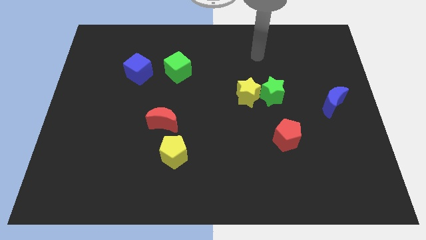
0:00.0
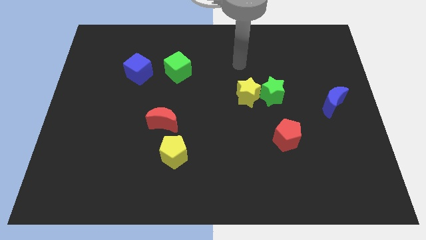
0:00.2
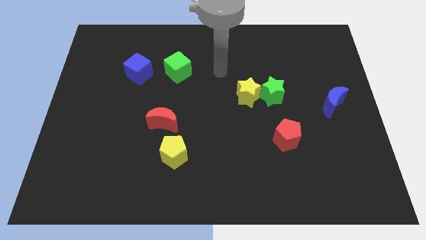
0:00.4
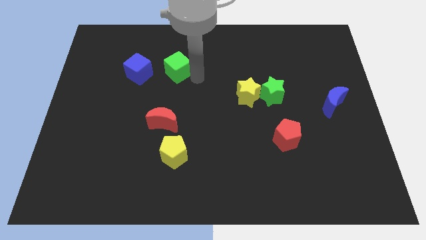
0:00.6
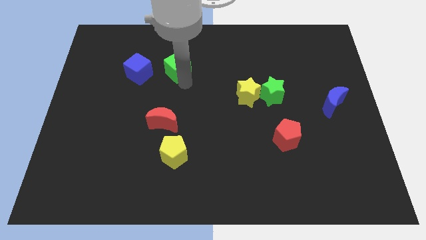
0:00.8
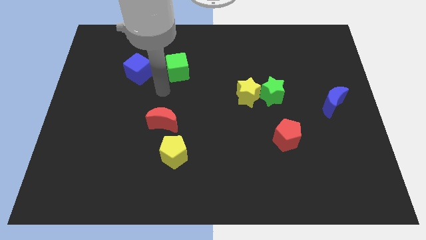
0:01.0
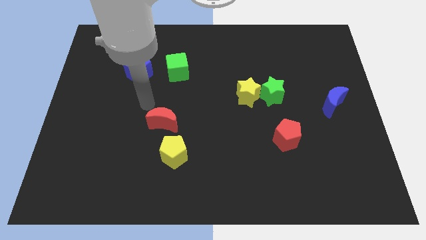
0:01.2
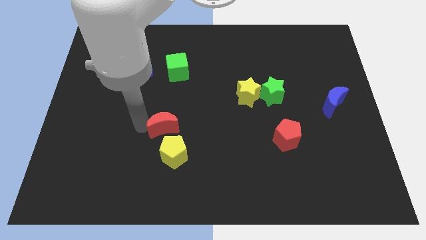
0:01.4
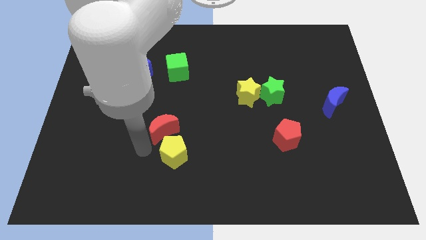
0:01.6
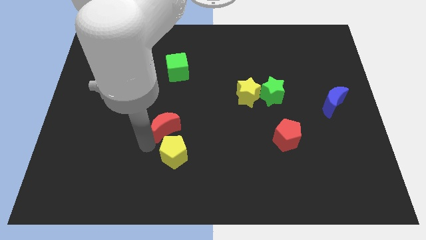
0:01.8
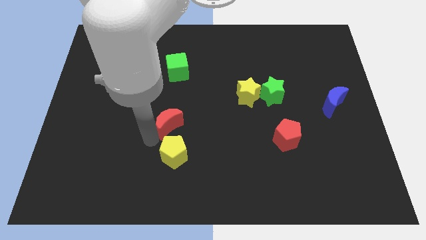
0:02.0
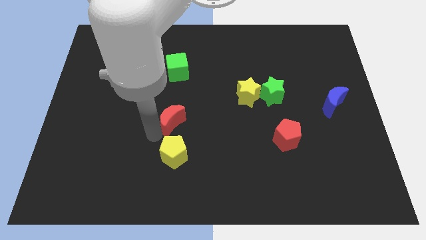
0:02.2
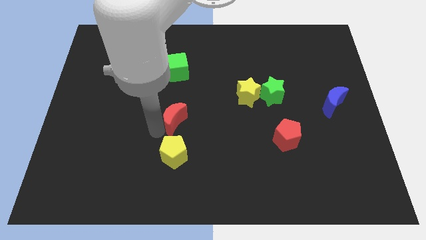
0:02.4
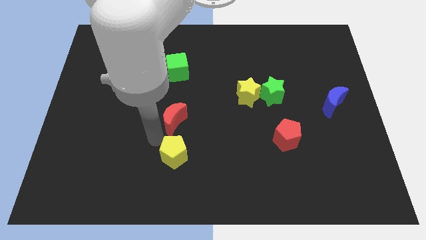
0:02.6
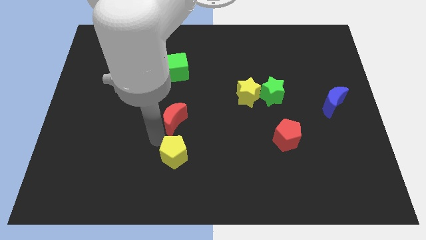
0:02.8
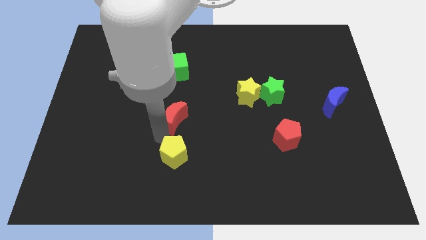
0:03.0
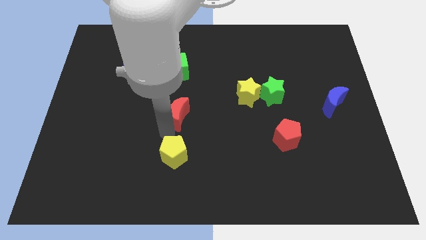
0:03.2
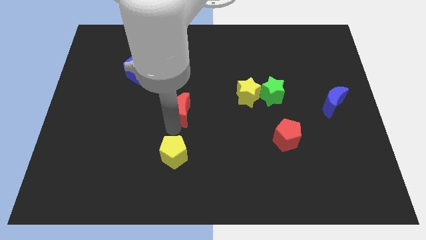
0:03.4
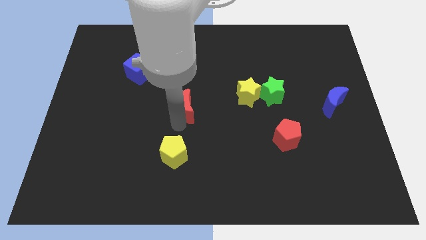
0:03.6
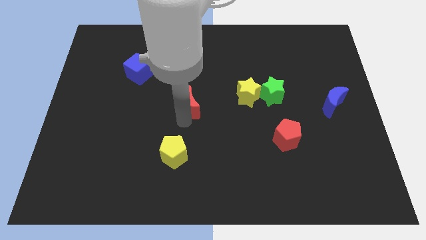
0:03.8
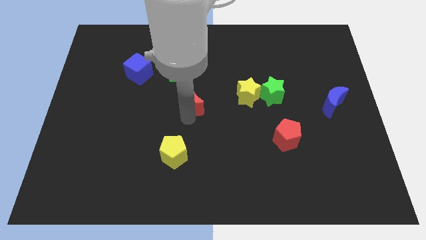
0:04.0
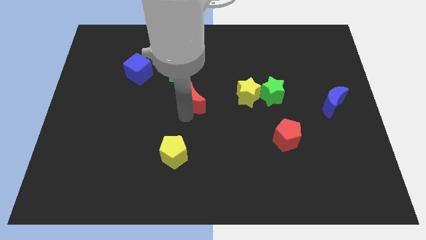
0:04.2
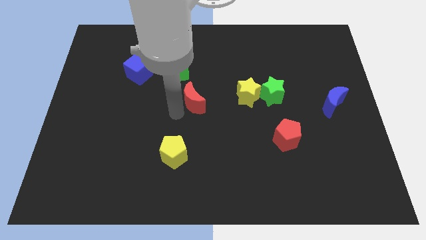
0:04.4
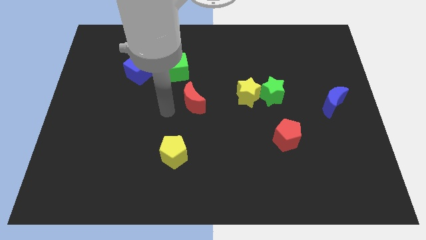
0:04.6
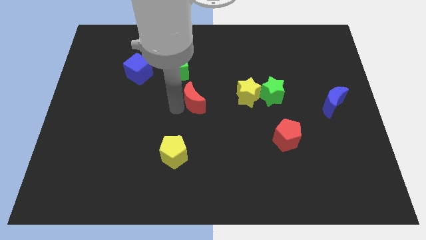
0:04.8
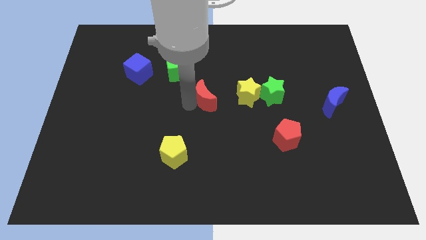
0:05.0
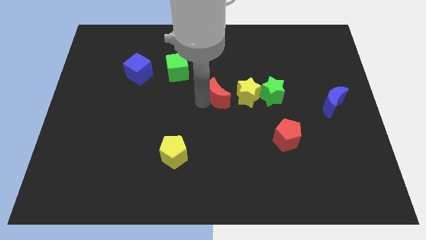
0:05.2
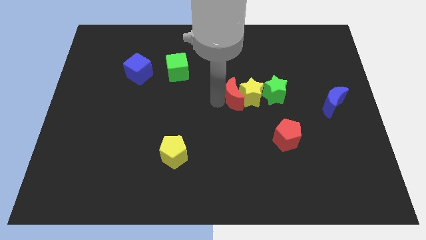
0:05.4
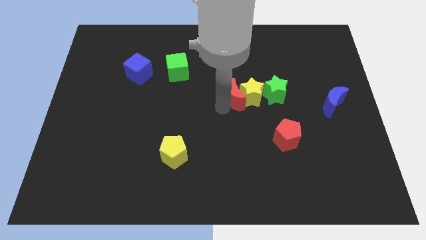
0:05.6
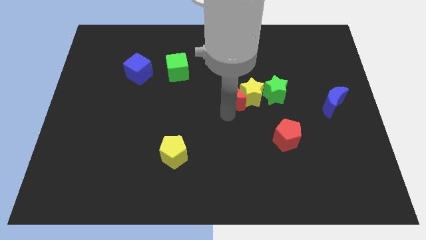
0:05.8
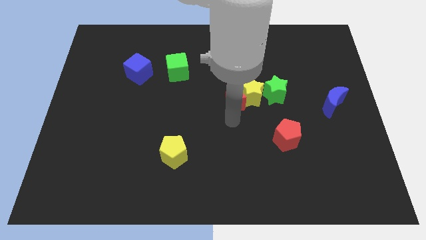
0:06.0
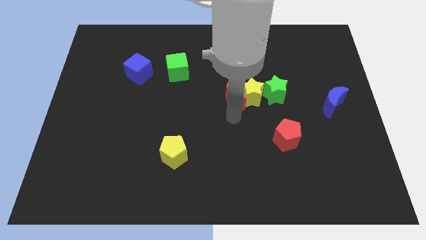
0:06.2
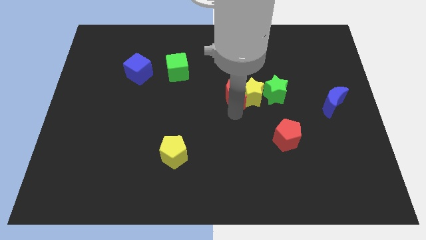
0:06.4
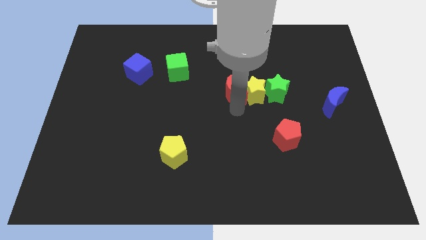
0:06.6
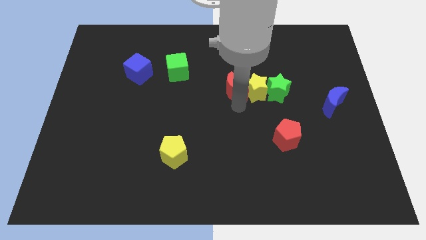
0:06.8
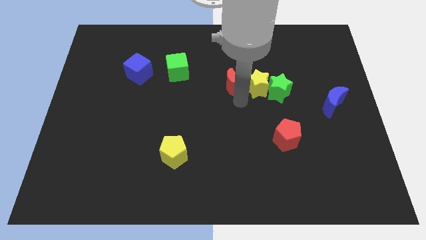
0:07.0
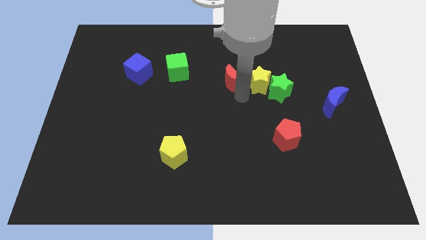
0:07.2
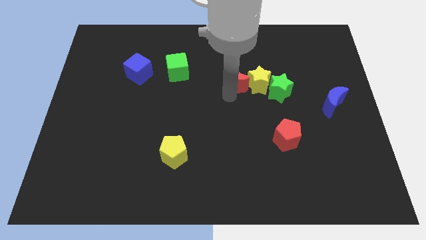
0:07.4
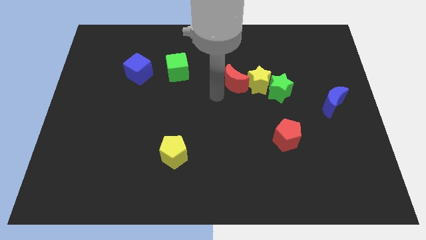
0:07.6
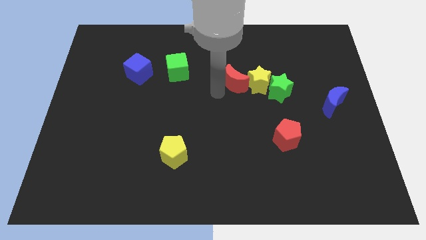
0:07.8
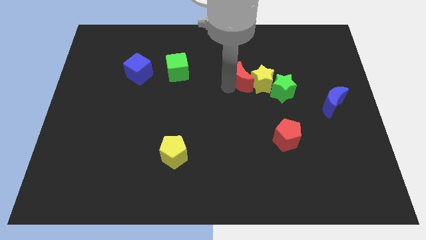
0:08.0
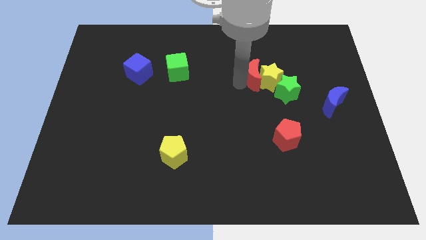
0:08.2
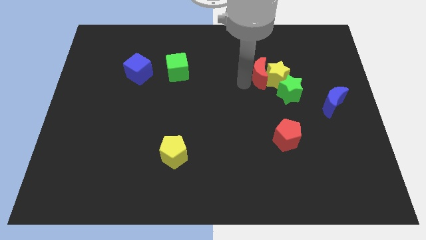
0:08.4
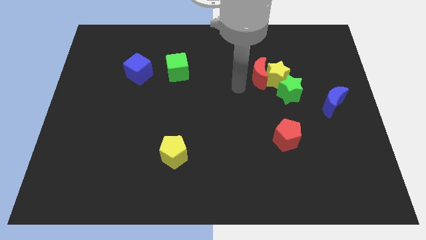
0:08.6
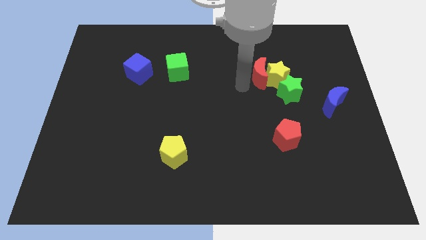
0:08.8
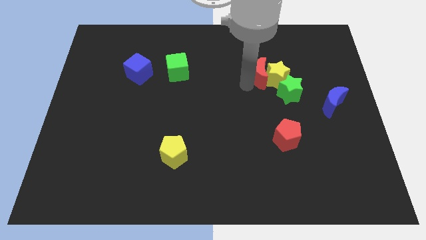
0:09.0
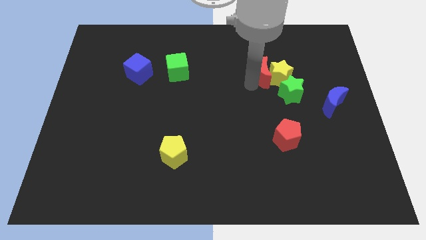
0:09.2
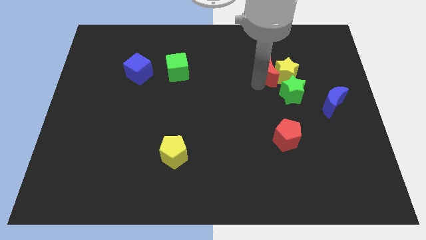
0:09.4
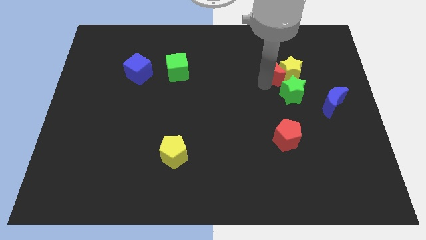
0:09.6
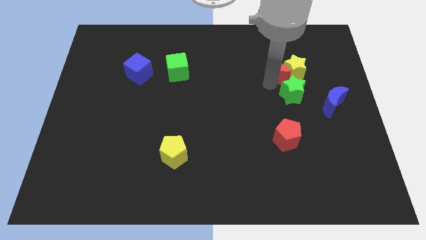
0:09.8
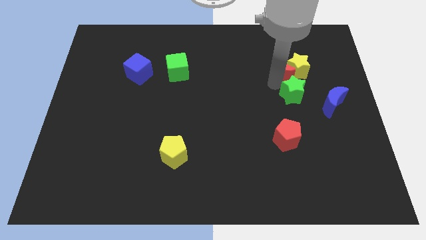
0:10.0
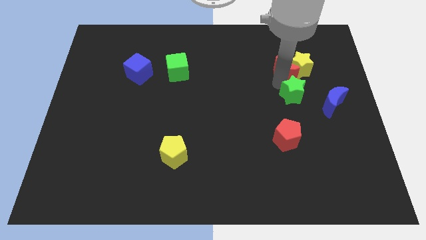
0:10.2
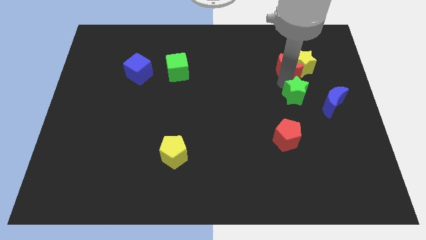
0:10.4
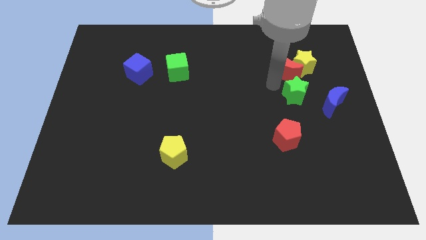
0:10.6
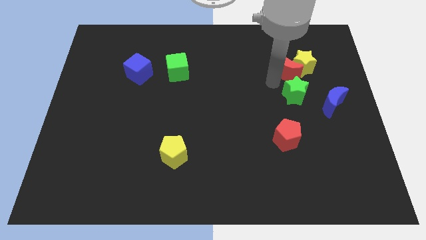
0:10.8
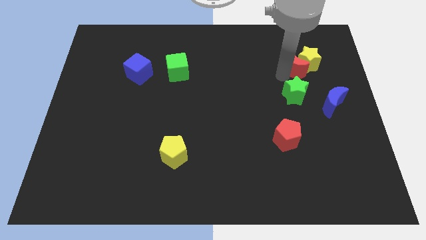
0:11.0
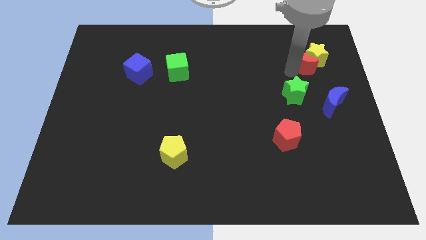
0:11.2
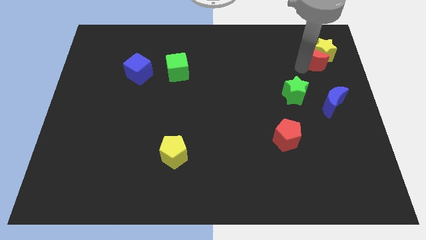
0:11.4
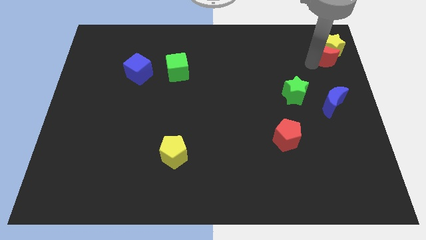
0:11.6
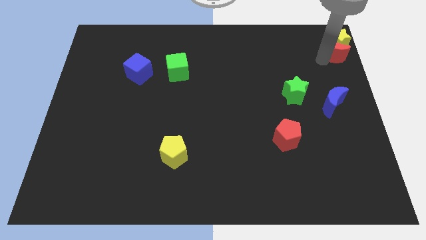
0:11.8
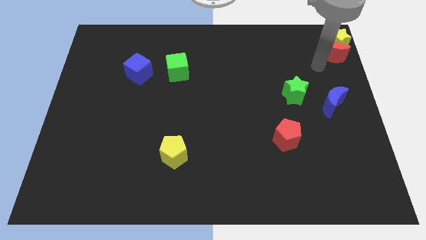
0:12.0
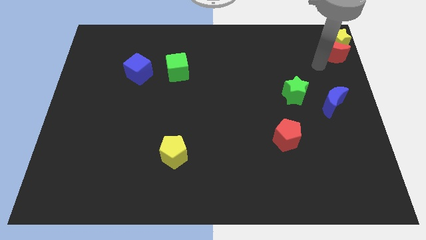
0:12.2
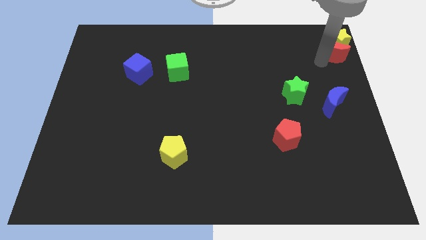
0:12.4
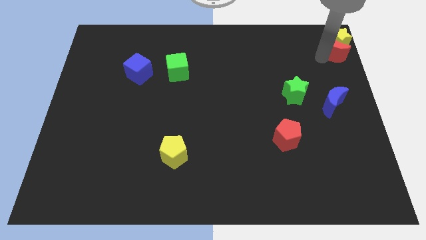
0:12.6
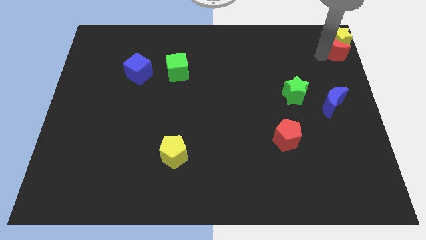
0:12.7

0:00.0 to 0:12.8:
put the red moon to the top right of the board

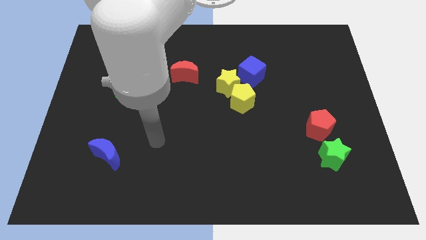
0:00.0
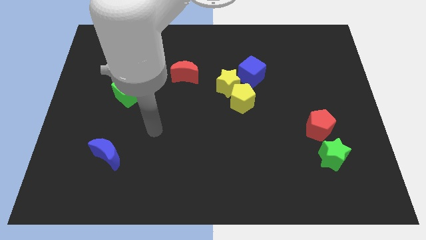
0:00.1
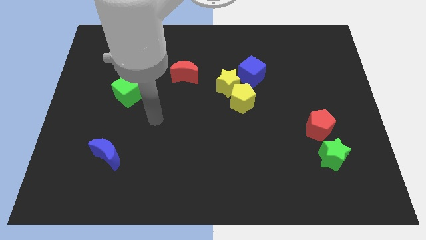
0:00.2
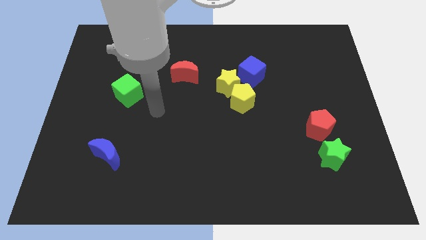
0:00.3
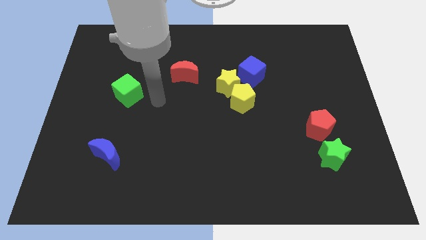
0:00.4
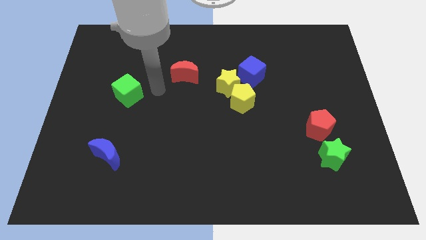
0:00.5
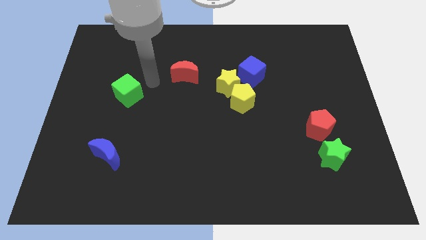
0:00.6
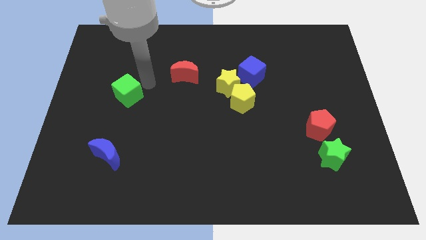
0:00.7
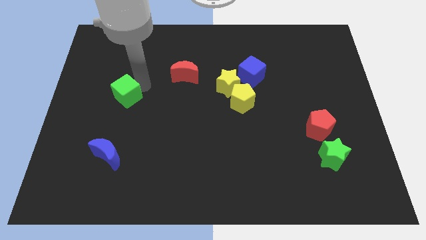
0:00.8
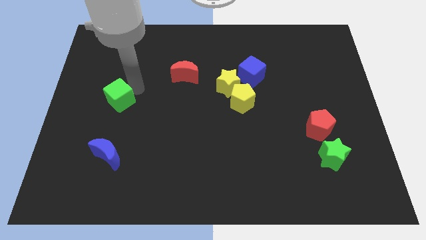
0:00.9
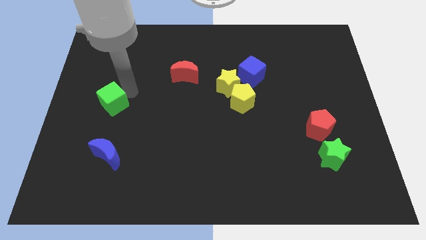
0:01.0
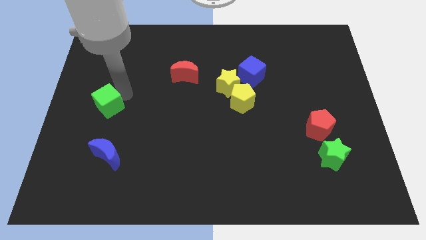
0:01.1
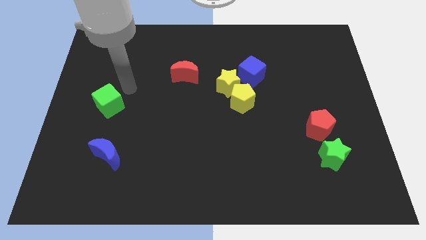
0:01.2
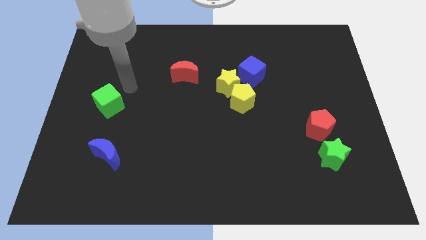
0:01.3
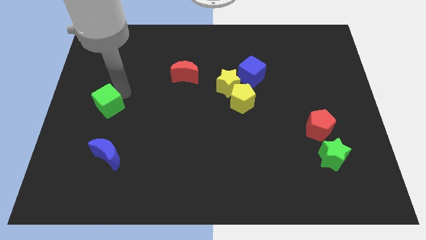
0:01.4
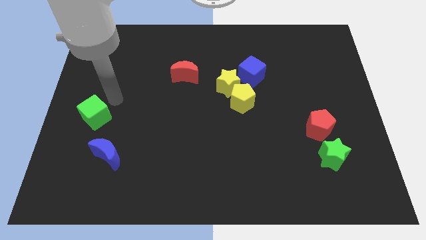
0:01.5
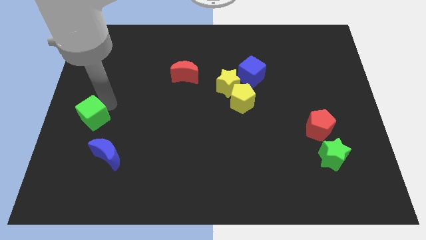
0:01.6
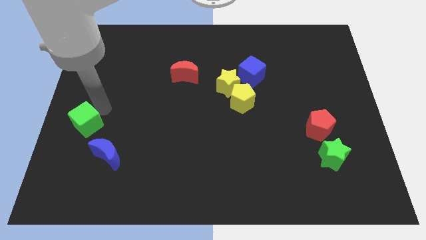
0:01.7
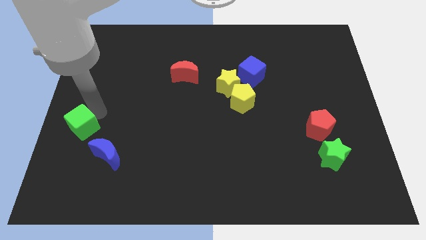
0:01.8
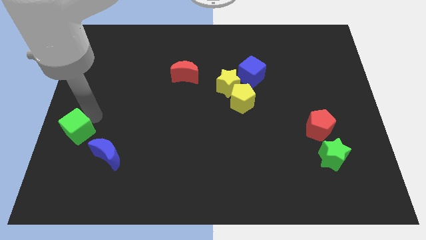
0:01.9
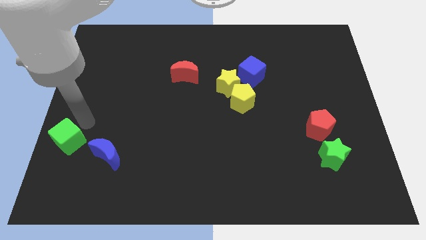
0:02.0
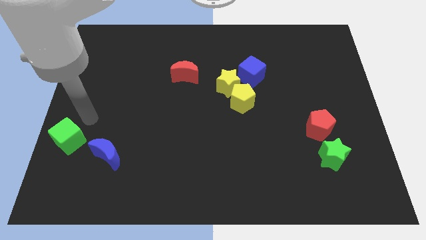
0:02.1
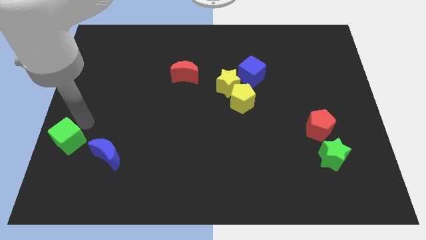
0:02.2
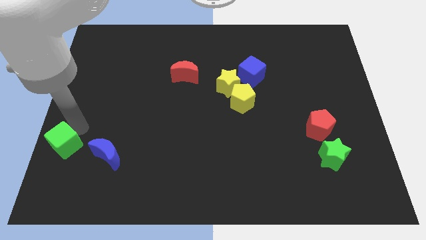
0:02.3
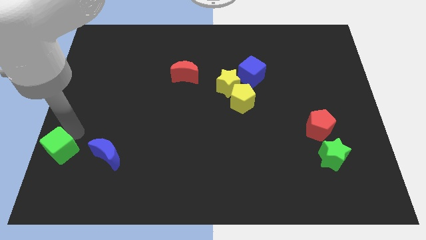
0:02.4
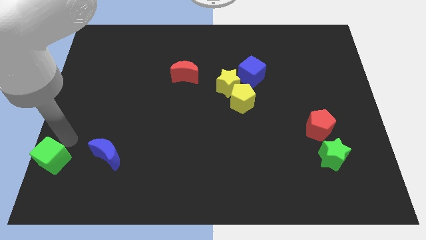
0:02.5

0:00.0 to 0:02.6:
put the green cube to the bottom left
